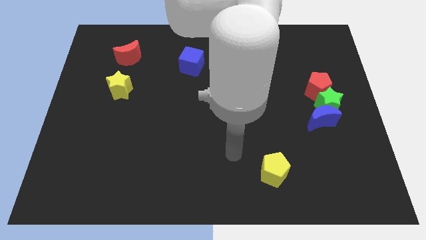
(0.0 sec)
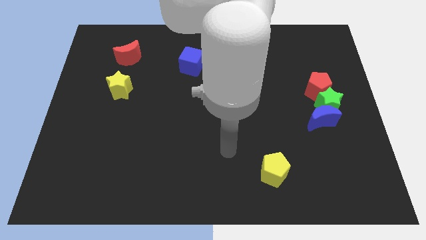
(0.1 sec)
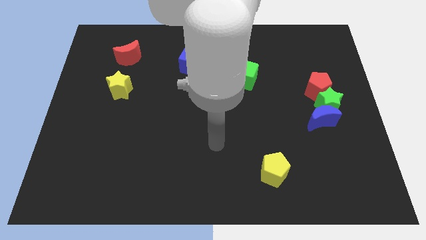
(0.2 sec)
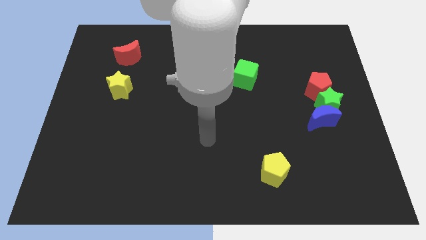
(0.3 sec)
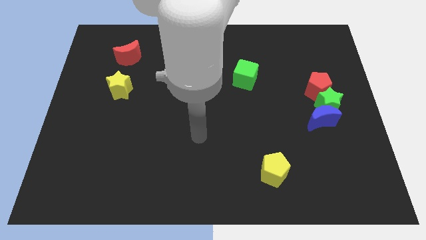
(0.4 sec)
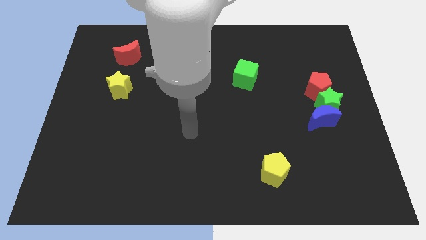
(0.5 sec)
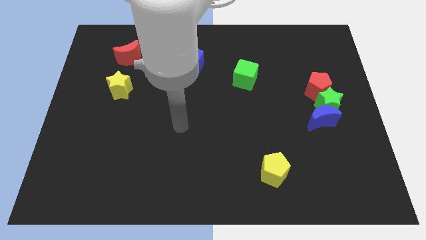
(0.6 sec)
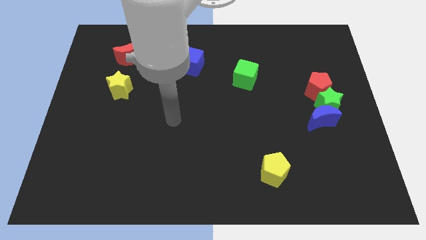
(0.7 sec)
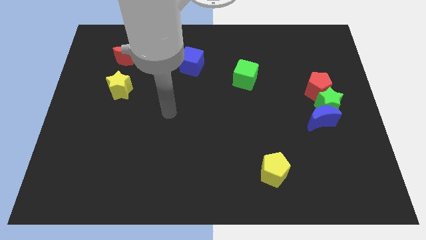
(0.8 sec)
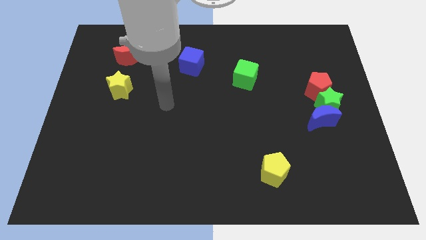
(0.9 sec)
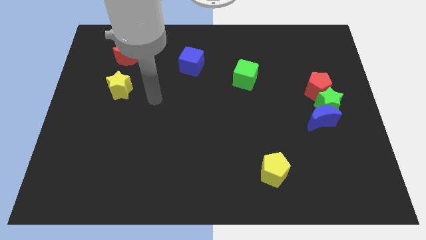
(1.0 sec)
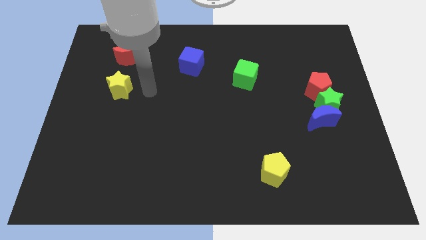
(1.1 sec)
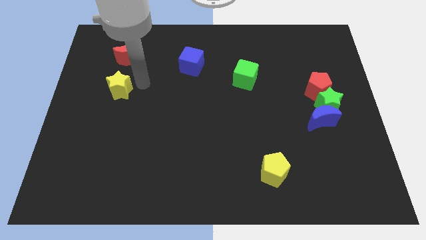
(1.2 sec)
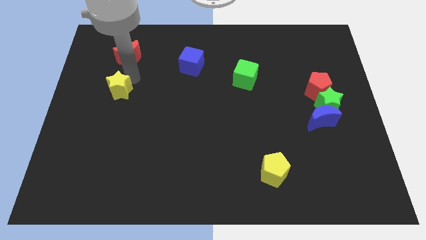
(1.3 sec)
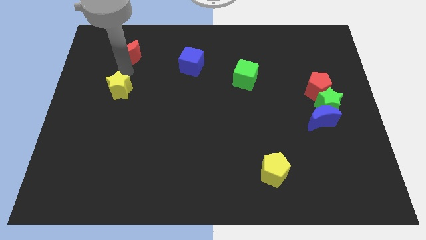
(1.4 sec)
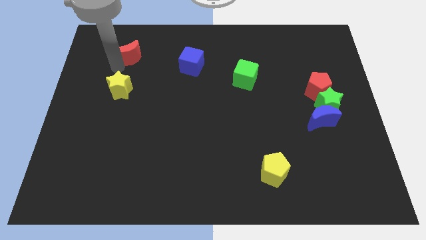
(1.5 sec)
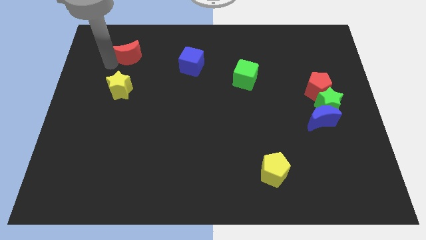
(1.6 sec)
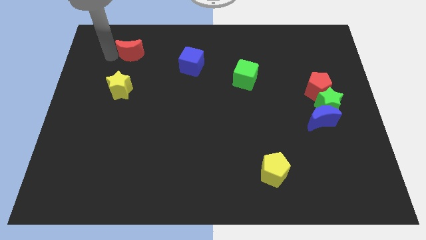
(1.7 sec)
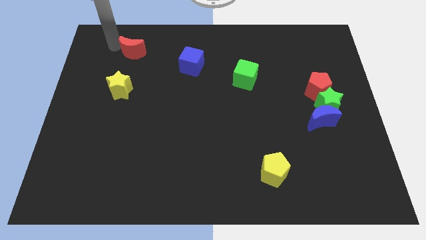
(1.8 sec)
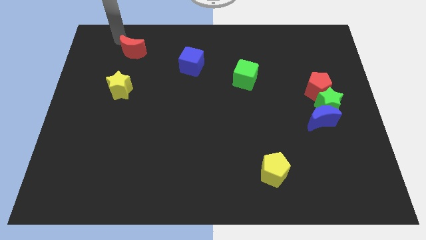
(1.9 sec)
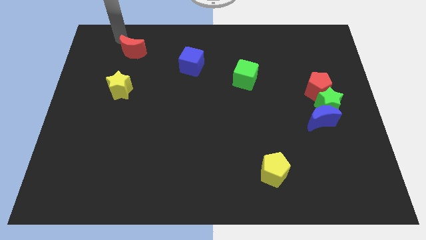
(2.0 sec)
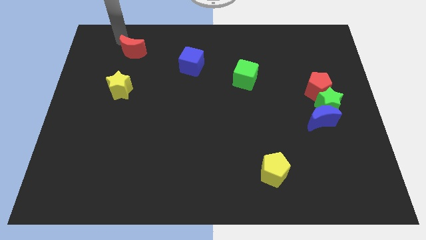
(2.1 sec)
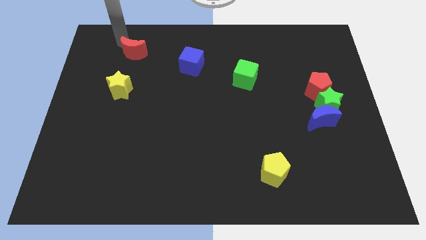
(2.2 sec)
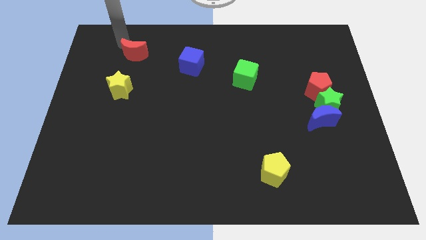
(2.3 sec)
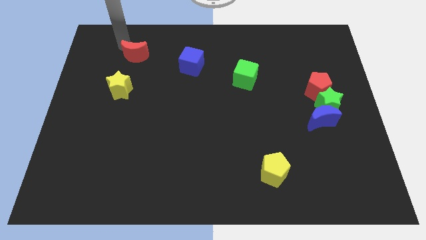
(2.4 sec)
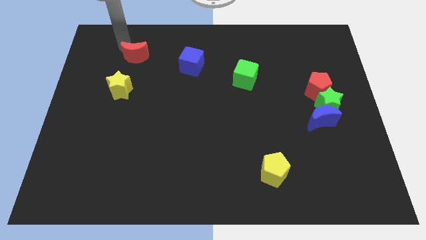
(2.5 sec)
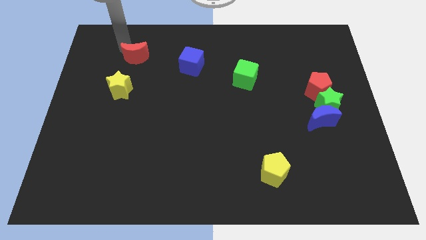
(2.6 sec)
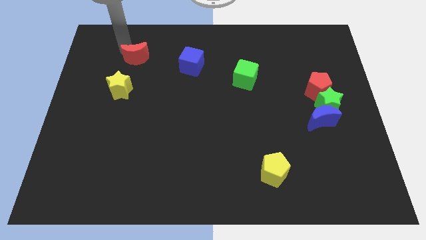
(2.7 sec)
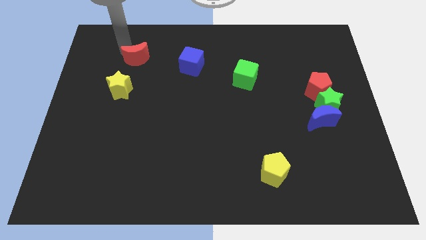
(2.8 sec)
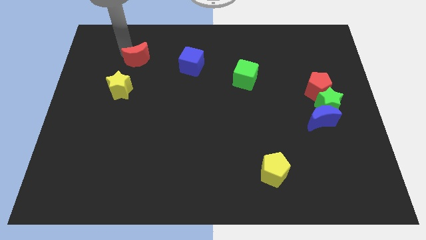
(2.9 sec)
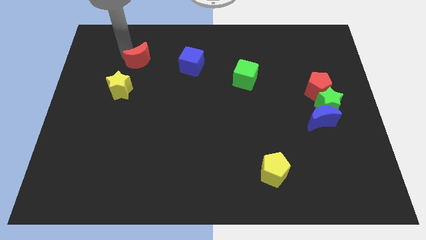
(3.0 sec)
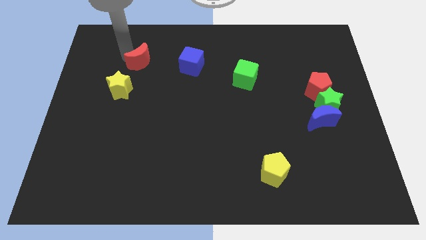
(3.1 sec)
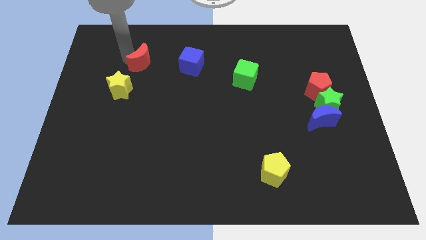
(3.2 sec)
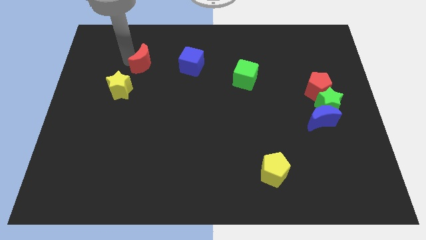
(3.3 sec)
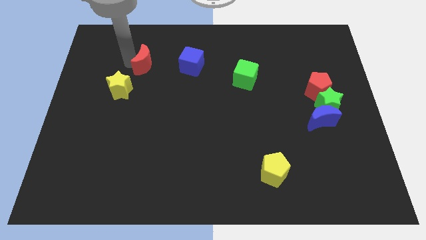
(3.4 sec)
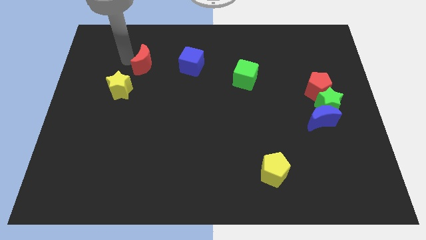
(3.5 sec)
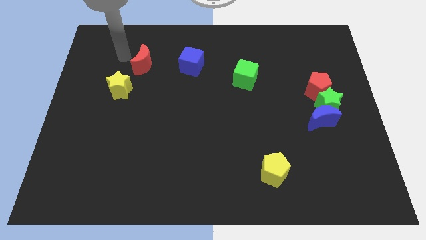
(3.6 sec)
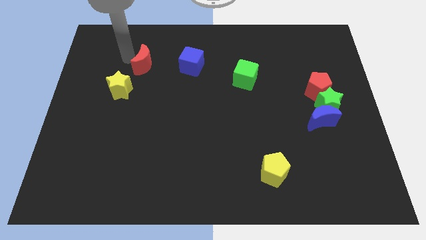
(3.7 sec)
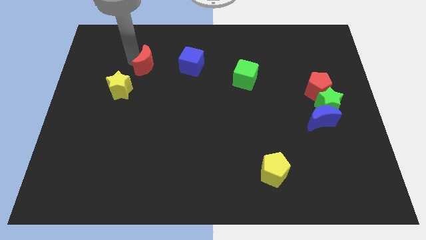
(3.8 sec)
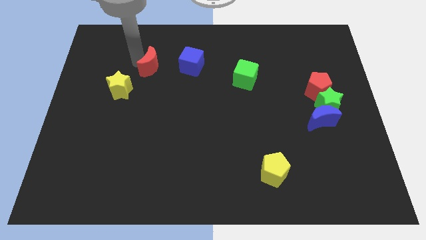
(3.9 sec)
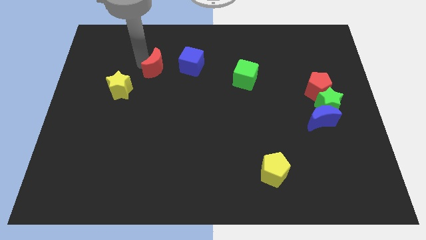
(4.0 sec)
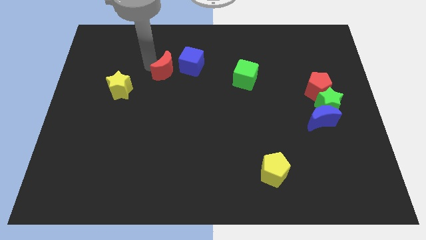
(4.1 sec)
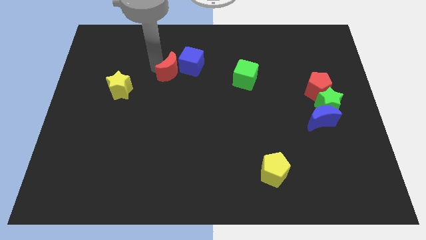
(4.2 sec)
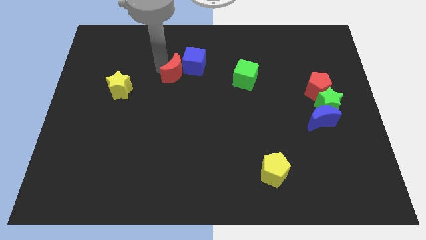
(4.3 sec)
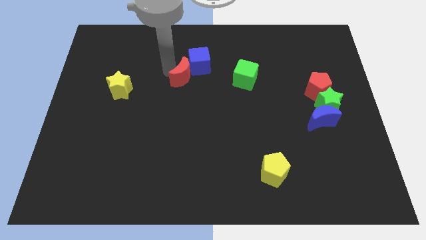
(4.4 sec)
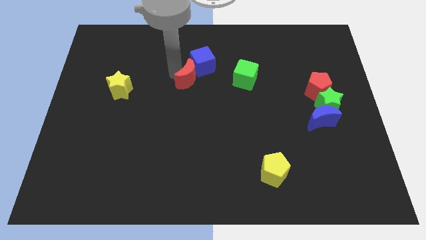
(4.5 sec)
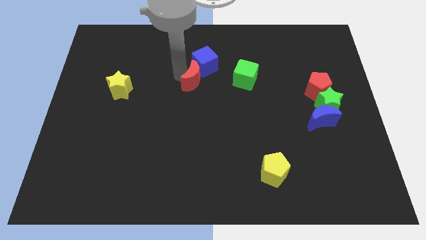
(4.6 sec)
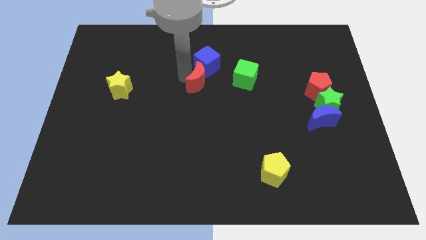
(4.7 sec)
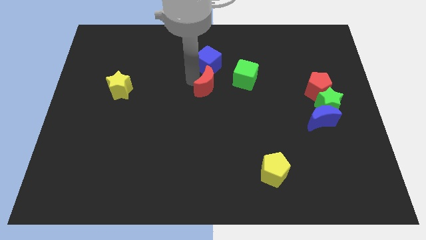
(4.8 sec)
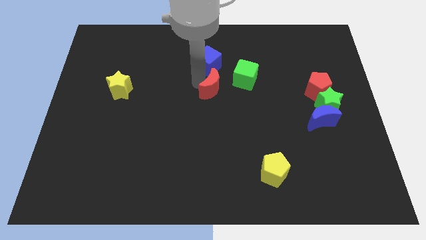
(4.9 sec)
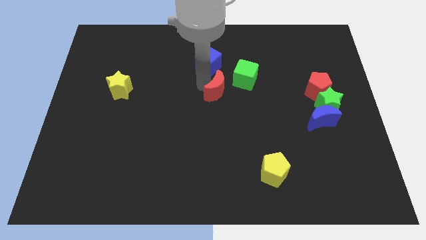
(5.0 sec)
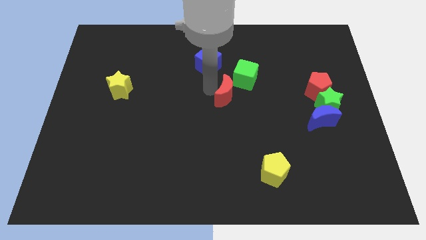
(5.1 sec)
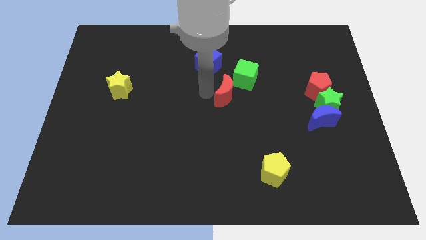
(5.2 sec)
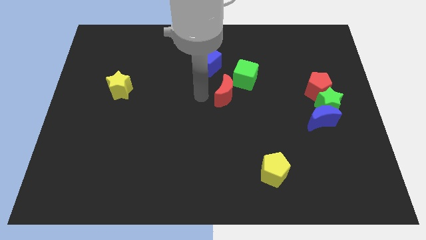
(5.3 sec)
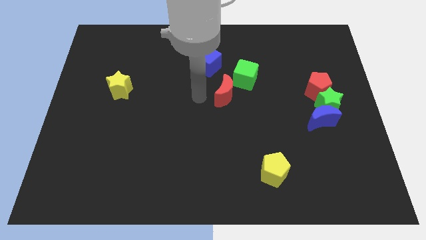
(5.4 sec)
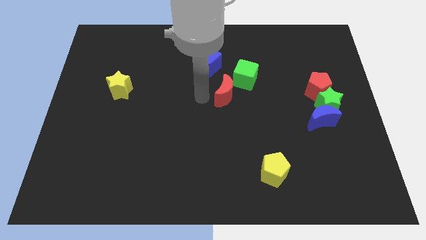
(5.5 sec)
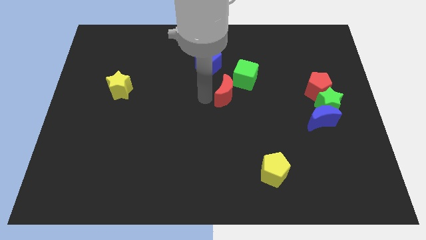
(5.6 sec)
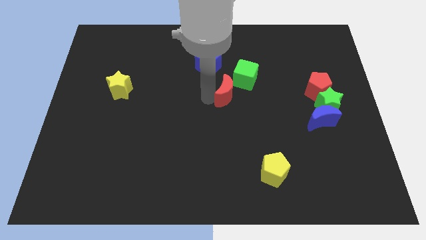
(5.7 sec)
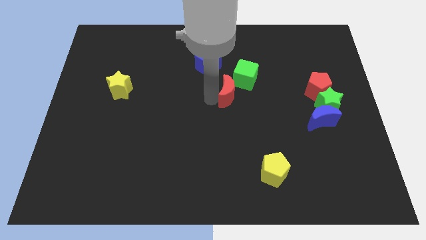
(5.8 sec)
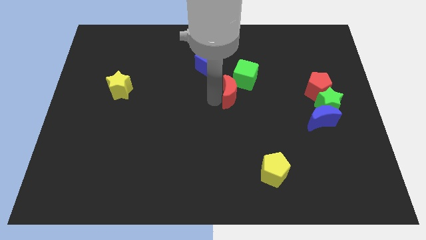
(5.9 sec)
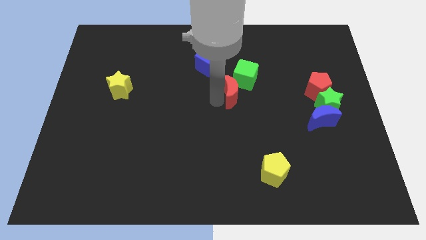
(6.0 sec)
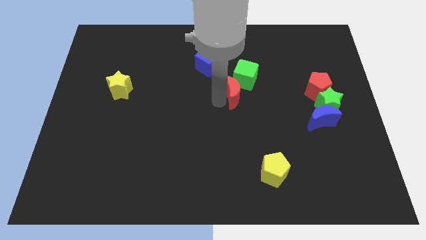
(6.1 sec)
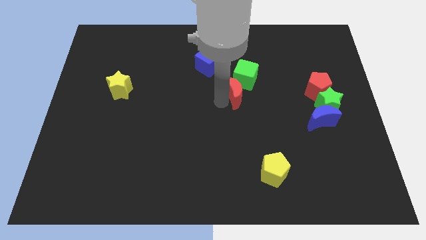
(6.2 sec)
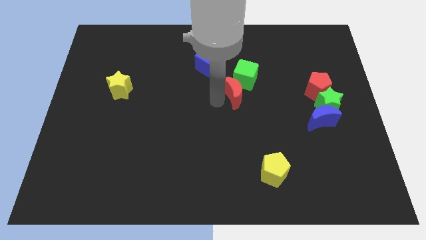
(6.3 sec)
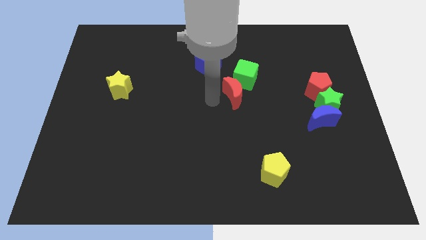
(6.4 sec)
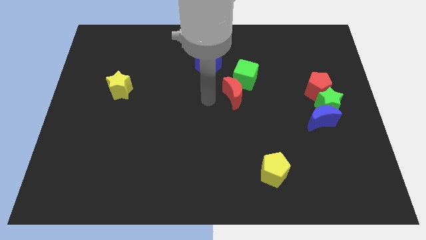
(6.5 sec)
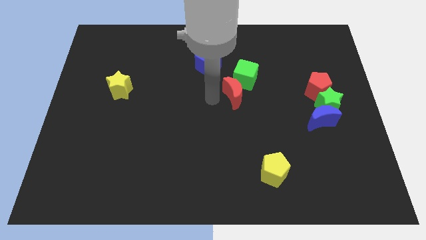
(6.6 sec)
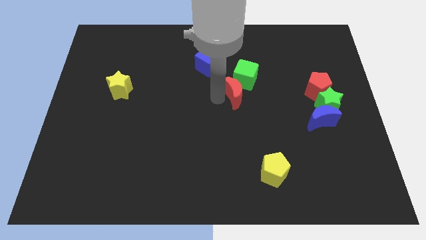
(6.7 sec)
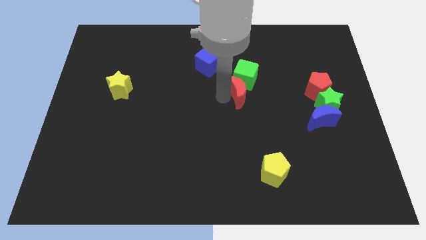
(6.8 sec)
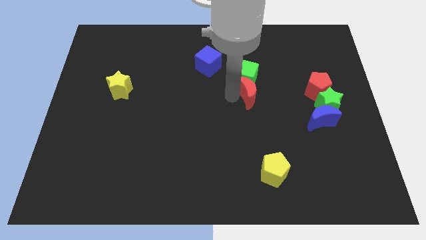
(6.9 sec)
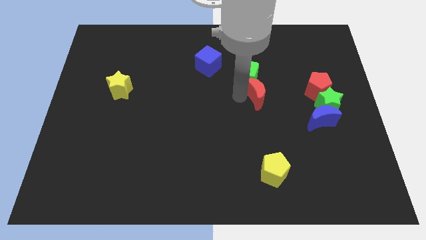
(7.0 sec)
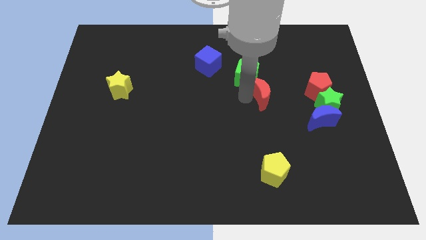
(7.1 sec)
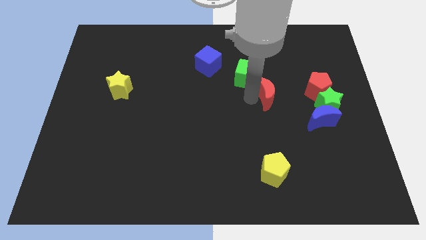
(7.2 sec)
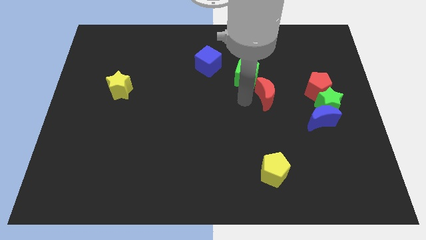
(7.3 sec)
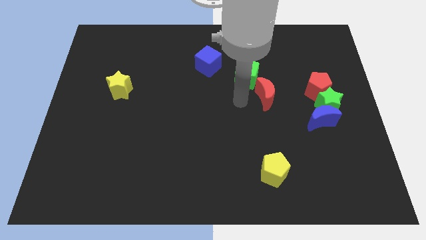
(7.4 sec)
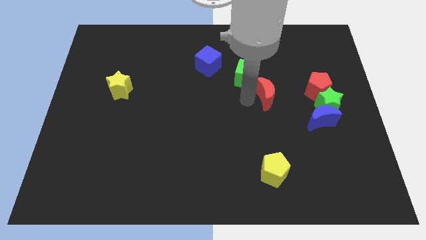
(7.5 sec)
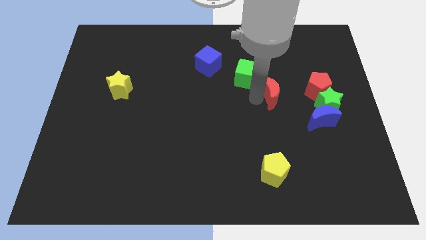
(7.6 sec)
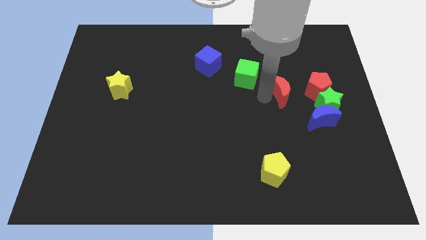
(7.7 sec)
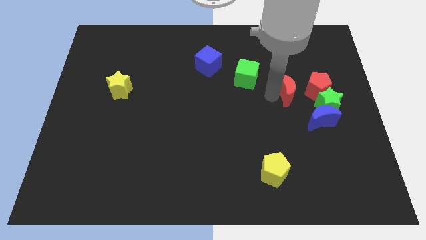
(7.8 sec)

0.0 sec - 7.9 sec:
slide the red moon diagonally up and to the left of the green star
